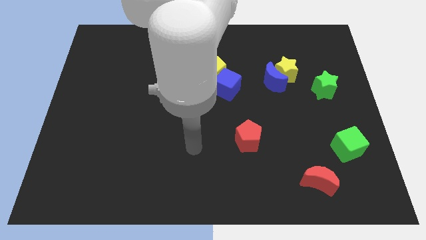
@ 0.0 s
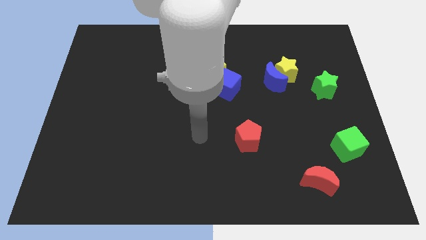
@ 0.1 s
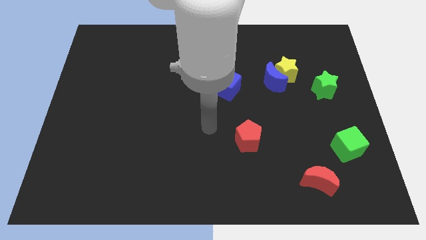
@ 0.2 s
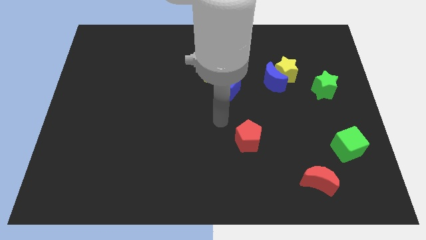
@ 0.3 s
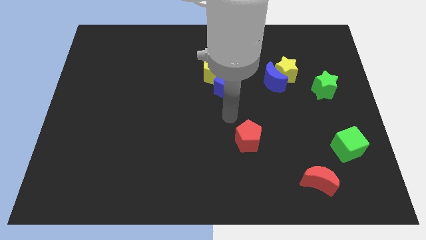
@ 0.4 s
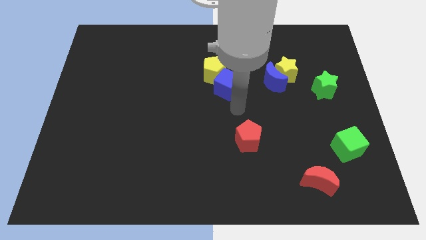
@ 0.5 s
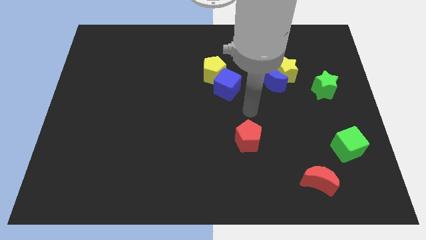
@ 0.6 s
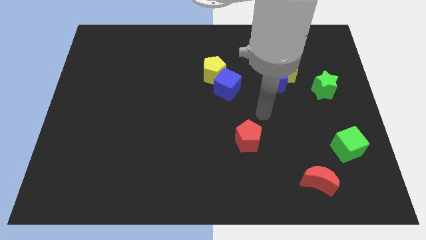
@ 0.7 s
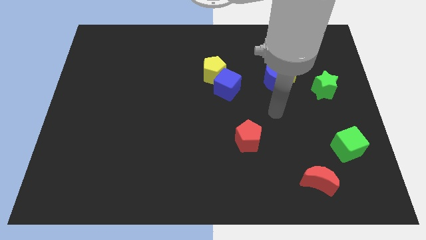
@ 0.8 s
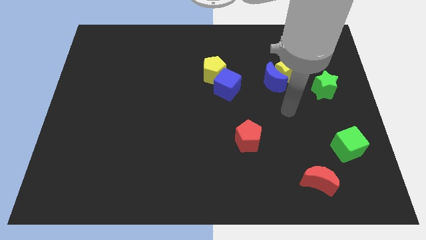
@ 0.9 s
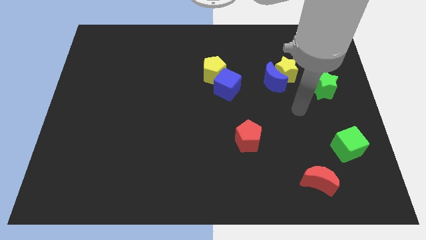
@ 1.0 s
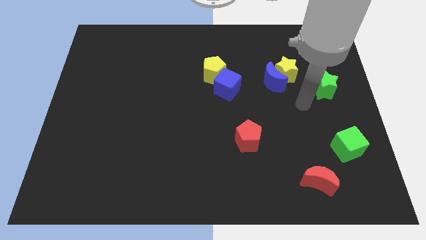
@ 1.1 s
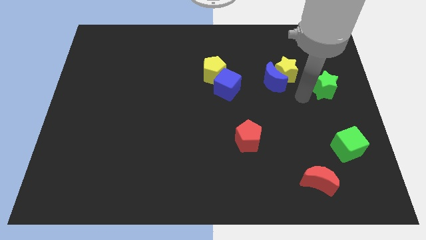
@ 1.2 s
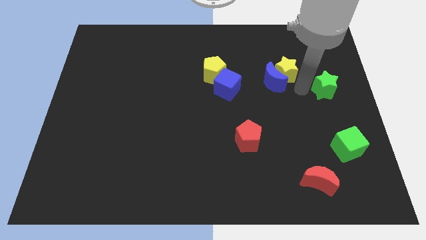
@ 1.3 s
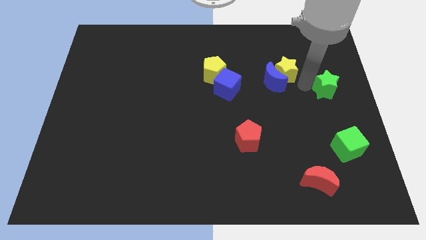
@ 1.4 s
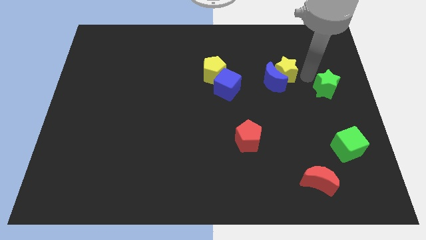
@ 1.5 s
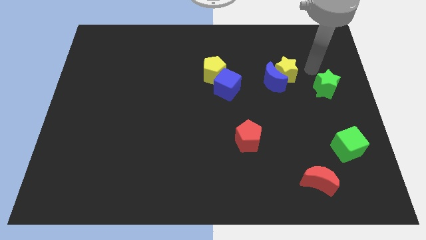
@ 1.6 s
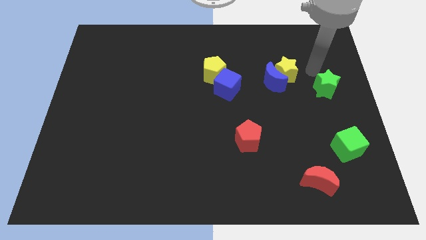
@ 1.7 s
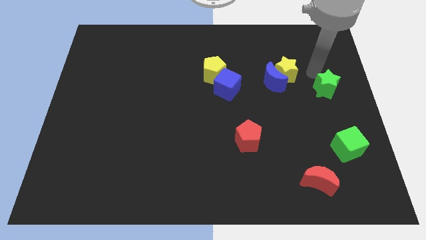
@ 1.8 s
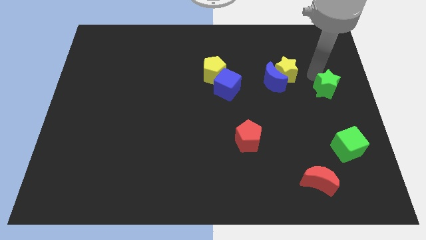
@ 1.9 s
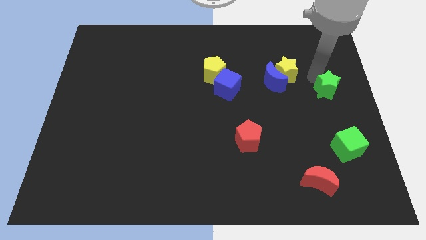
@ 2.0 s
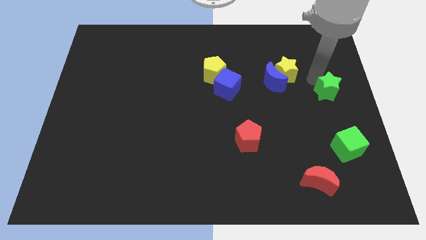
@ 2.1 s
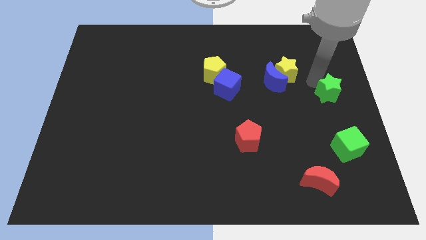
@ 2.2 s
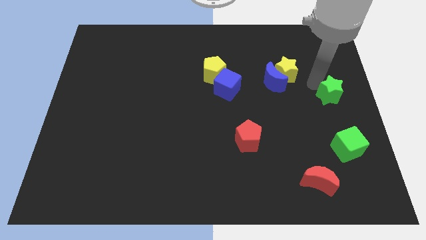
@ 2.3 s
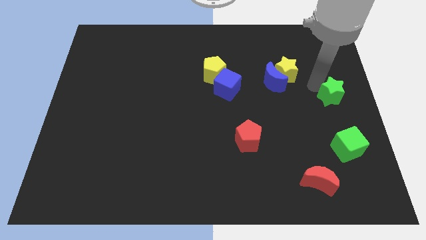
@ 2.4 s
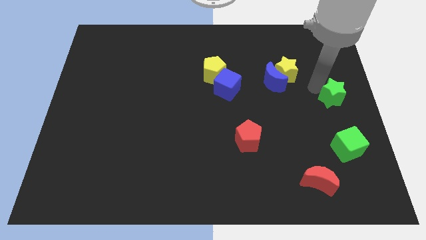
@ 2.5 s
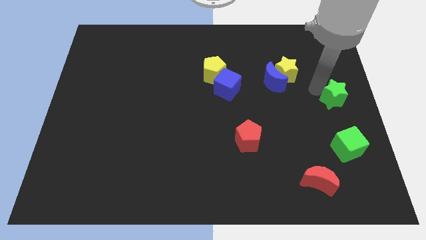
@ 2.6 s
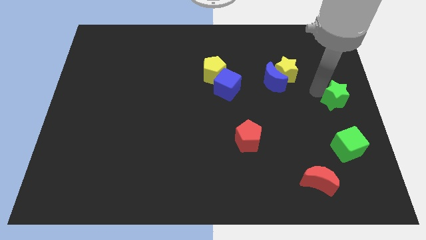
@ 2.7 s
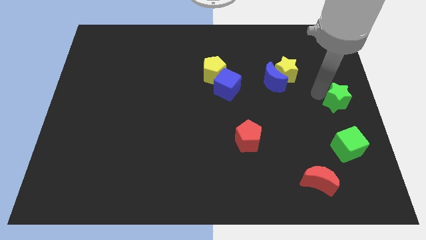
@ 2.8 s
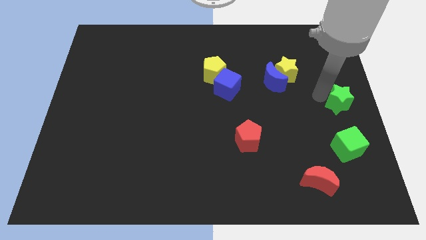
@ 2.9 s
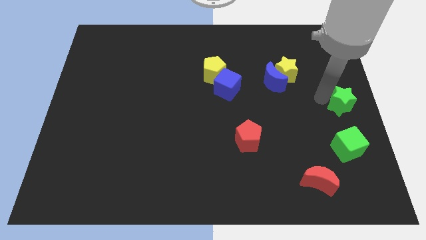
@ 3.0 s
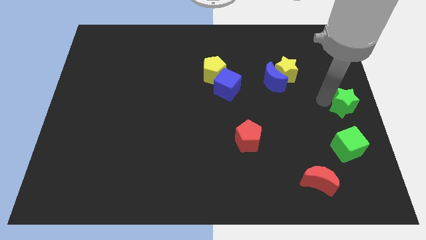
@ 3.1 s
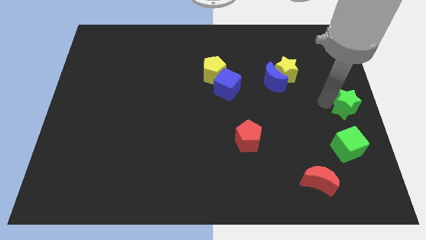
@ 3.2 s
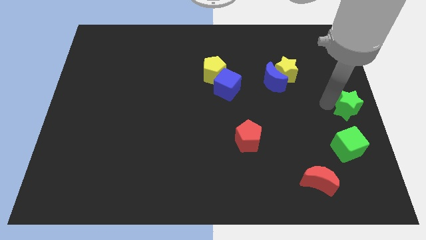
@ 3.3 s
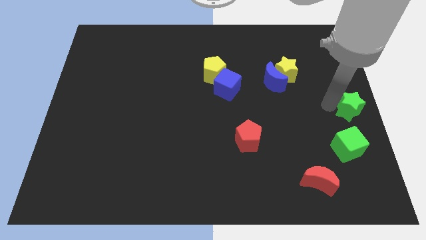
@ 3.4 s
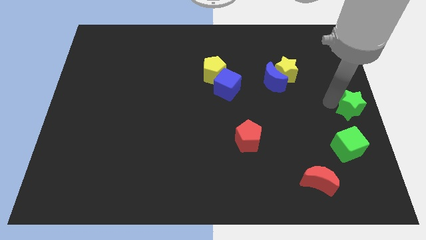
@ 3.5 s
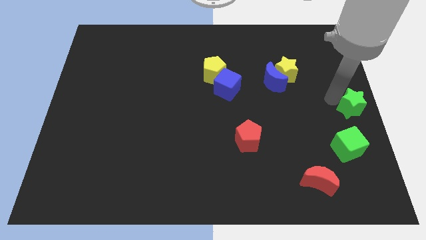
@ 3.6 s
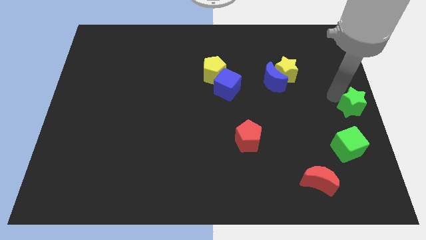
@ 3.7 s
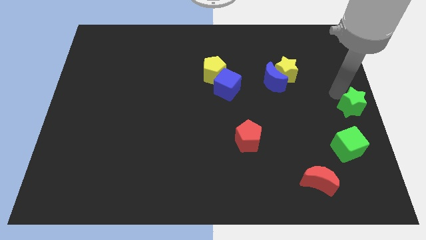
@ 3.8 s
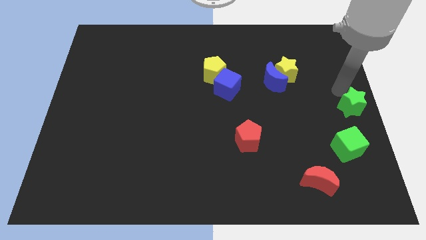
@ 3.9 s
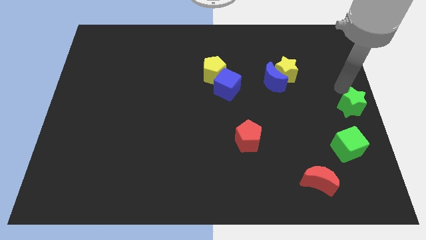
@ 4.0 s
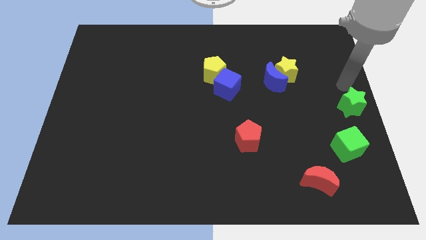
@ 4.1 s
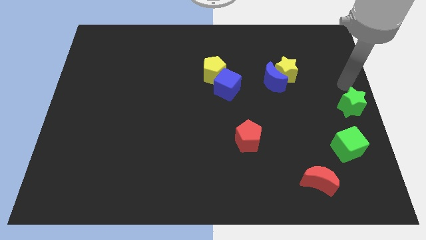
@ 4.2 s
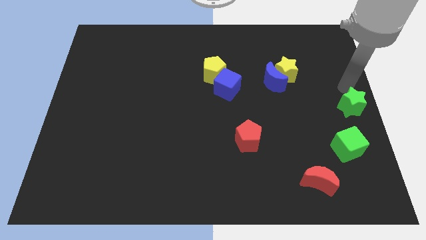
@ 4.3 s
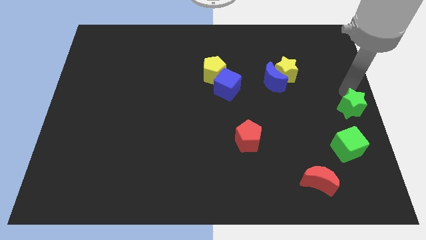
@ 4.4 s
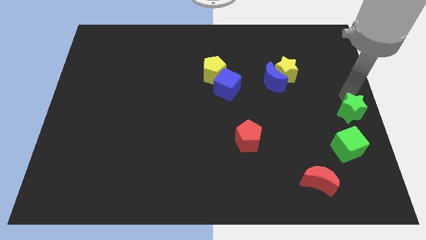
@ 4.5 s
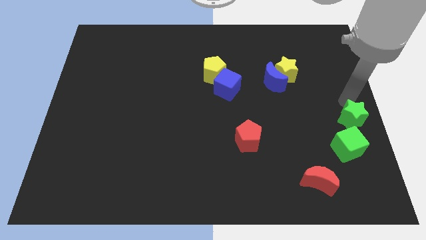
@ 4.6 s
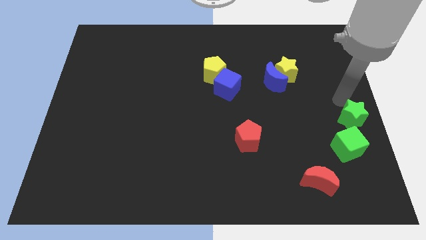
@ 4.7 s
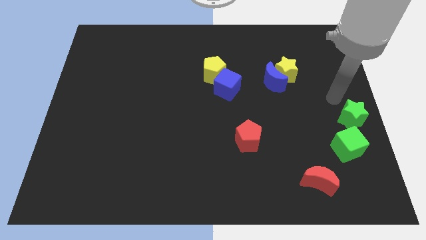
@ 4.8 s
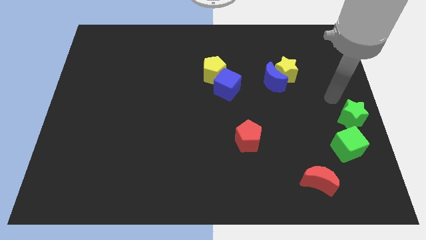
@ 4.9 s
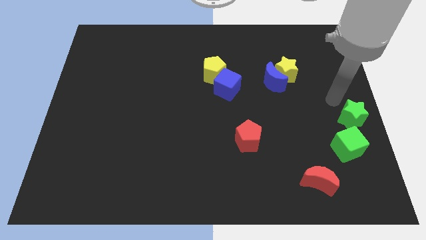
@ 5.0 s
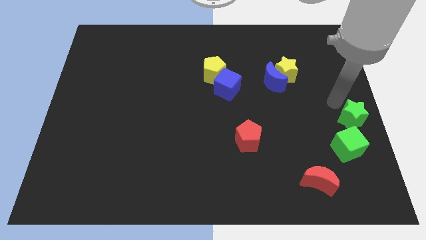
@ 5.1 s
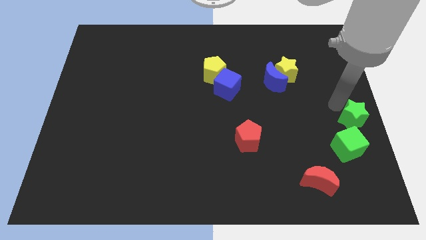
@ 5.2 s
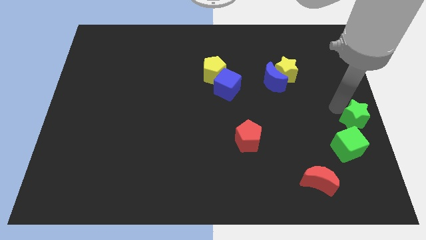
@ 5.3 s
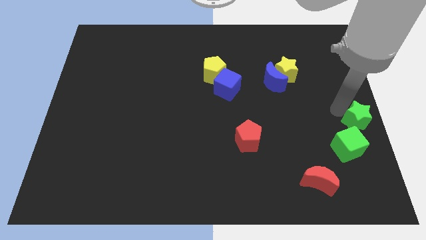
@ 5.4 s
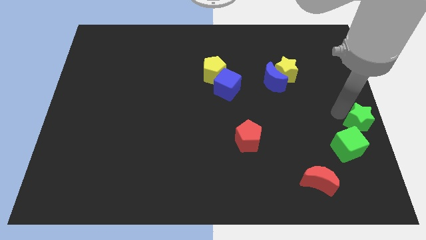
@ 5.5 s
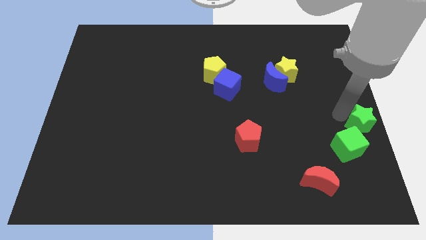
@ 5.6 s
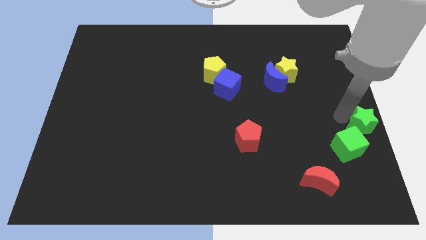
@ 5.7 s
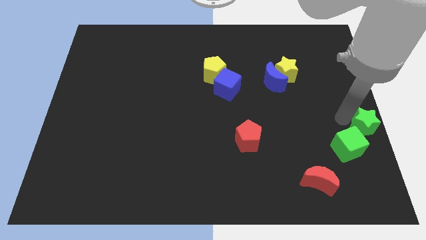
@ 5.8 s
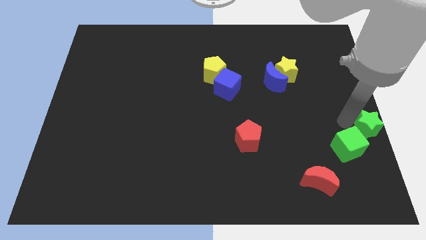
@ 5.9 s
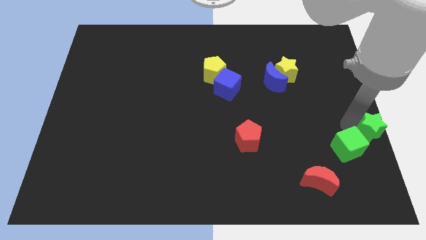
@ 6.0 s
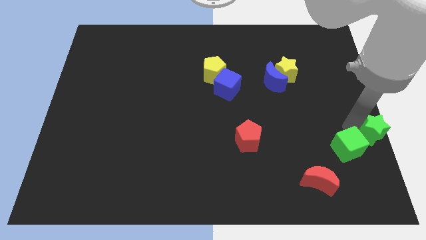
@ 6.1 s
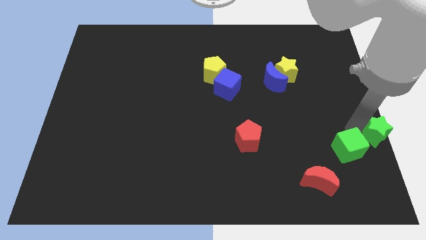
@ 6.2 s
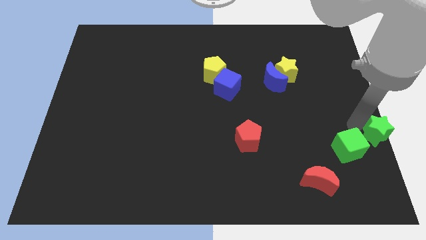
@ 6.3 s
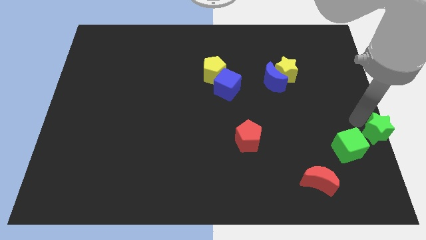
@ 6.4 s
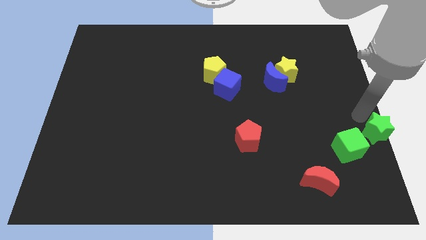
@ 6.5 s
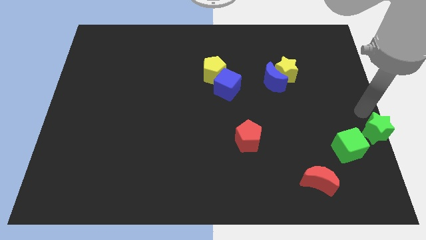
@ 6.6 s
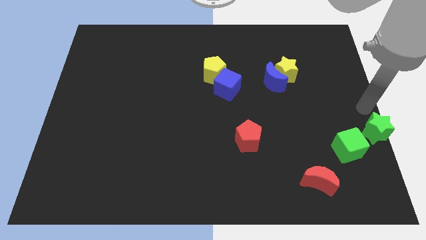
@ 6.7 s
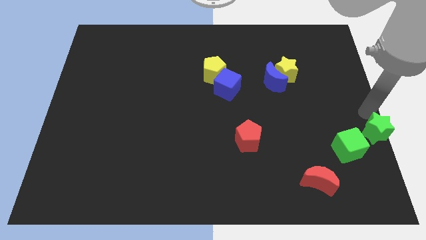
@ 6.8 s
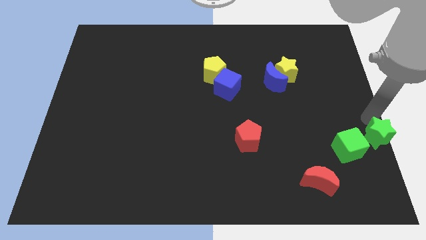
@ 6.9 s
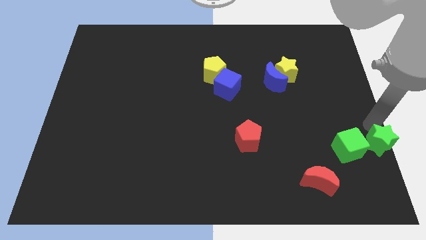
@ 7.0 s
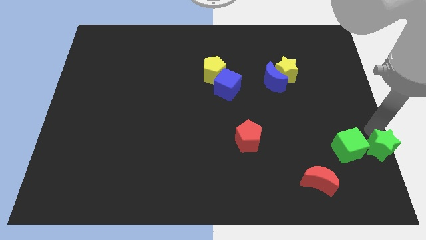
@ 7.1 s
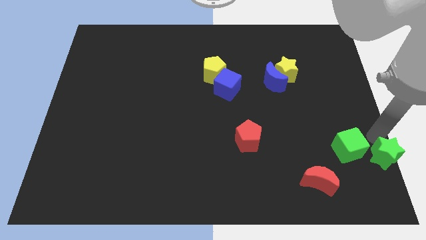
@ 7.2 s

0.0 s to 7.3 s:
put the green star to the bottom right of the board

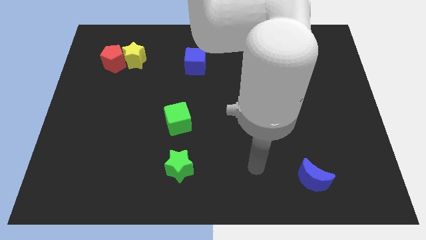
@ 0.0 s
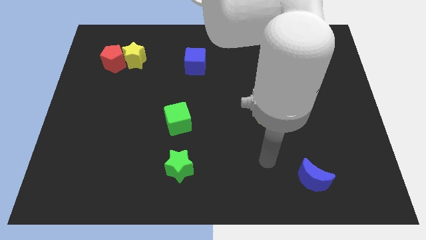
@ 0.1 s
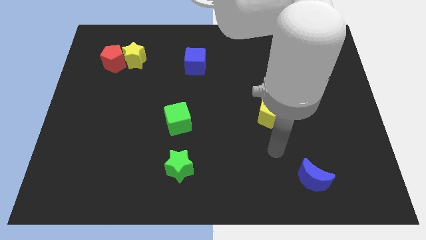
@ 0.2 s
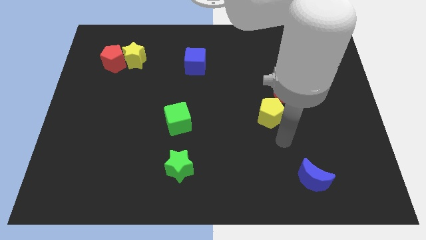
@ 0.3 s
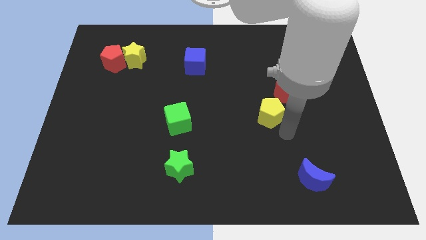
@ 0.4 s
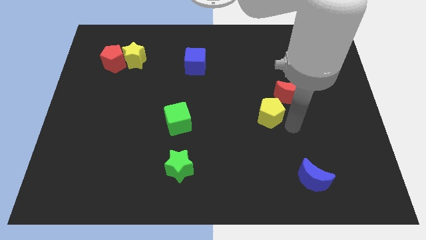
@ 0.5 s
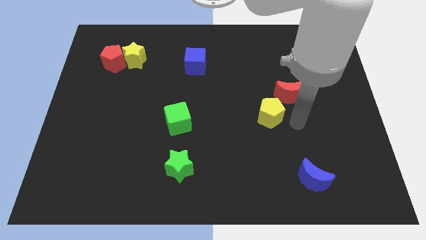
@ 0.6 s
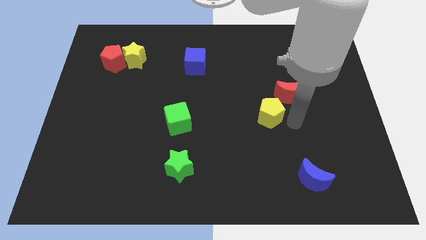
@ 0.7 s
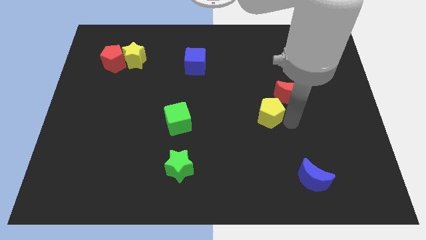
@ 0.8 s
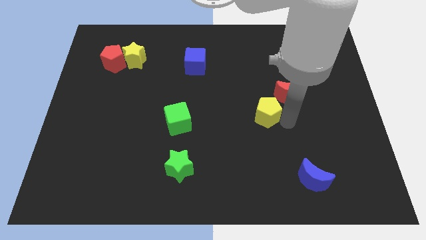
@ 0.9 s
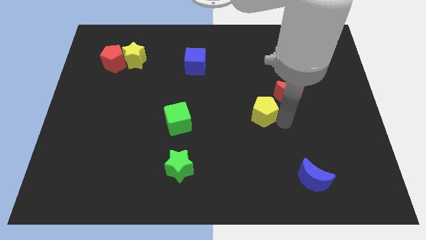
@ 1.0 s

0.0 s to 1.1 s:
slide the yellow pentagon to the middle
